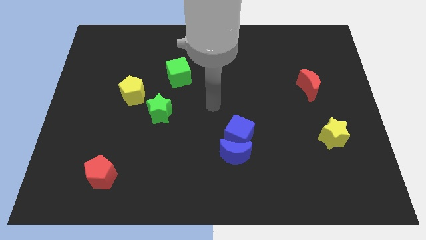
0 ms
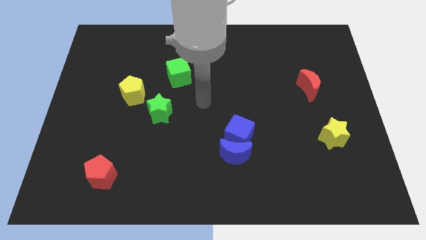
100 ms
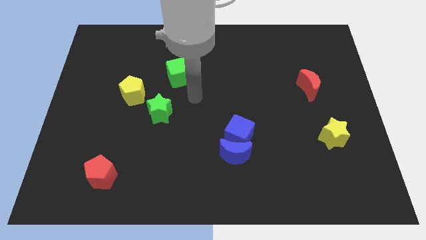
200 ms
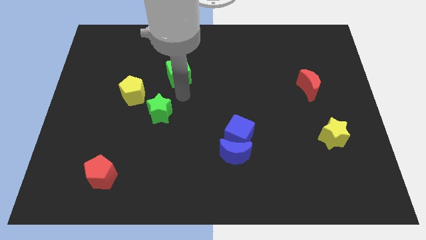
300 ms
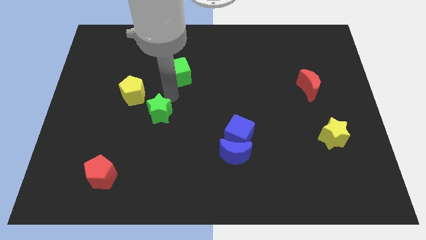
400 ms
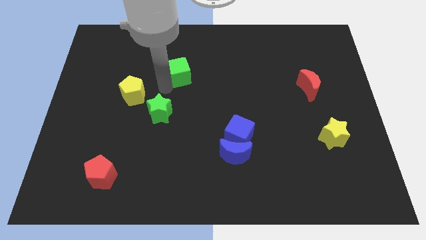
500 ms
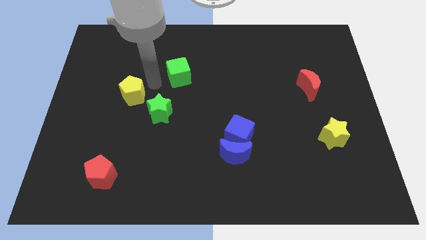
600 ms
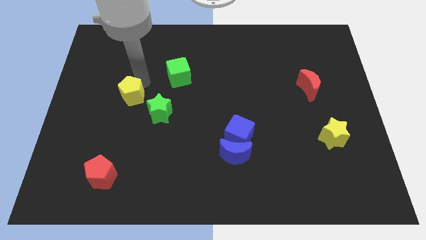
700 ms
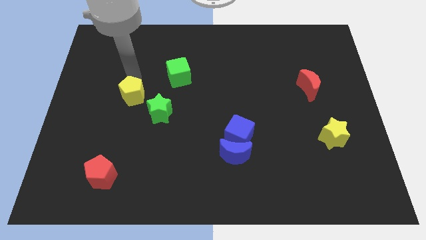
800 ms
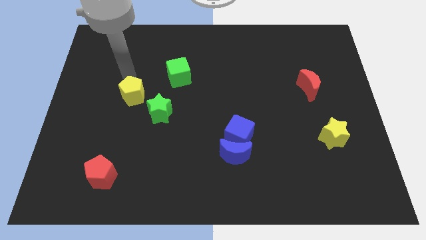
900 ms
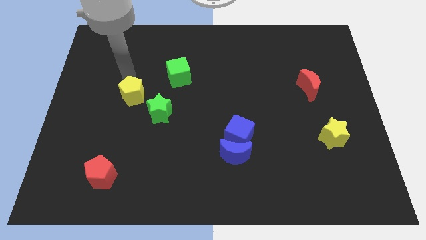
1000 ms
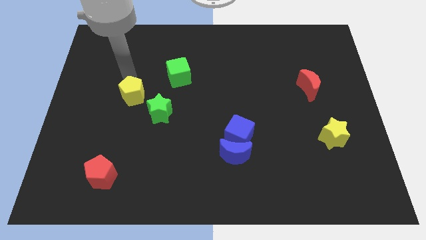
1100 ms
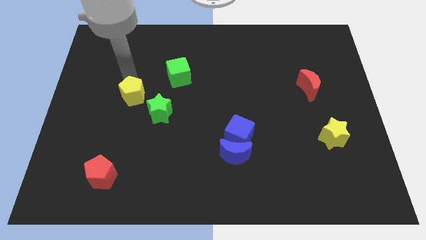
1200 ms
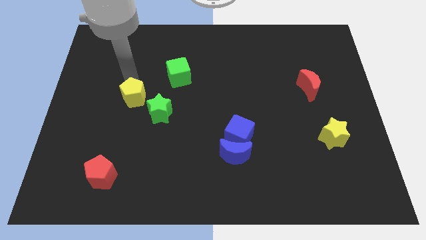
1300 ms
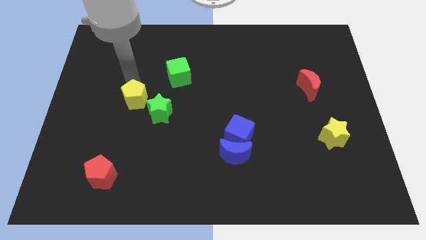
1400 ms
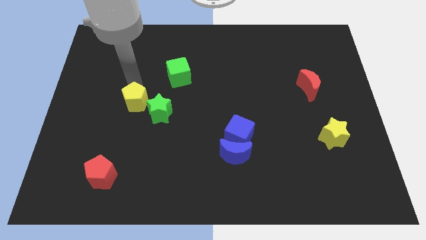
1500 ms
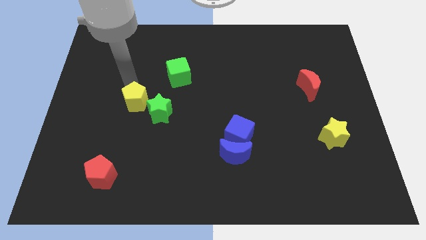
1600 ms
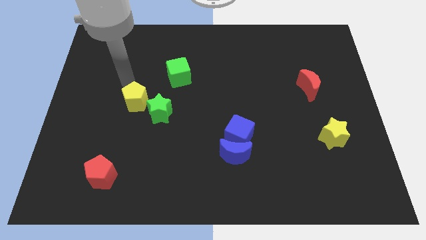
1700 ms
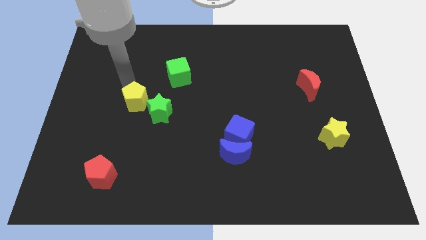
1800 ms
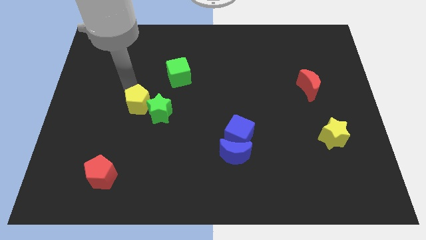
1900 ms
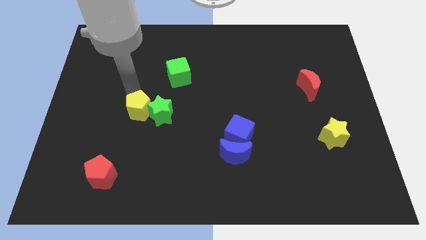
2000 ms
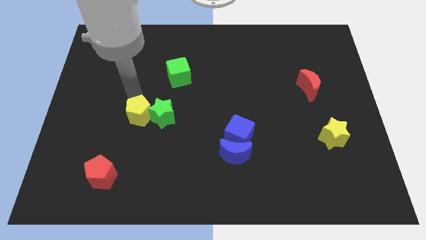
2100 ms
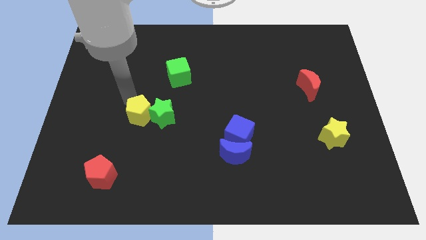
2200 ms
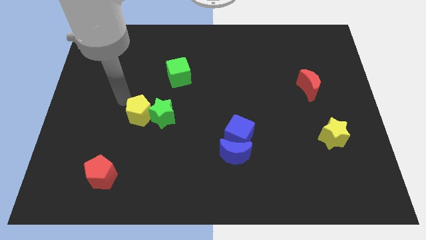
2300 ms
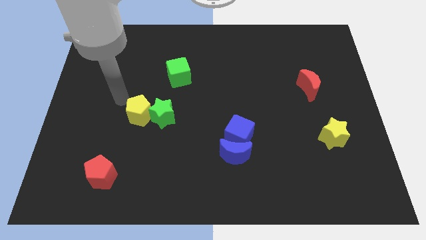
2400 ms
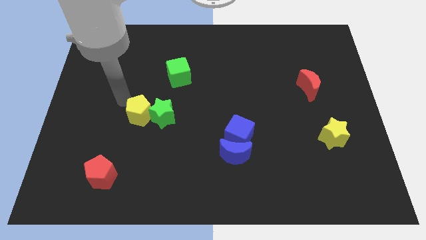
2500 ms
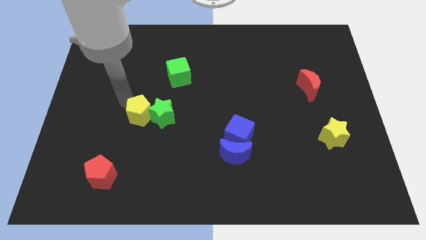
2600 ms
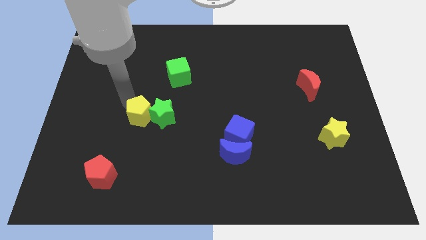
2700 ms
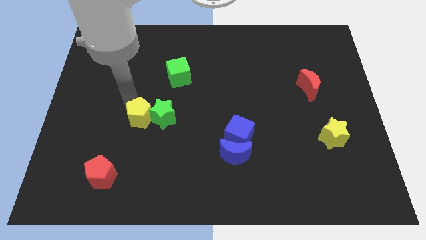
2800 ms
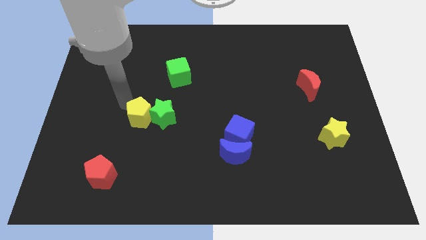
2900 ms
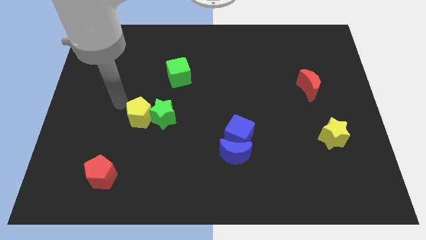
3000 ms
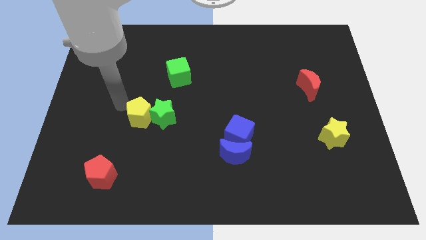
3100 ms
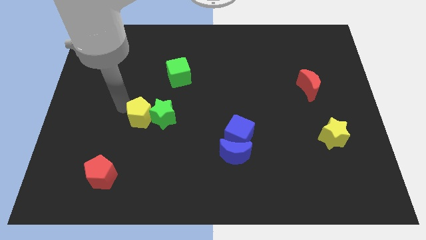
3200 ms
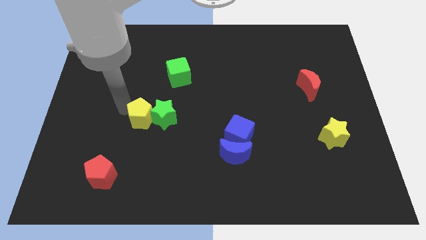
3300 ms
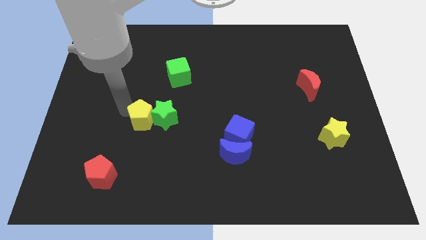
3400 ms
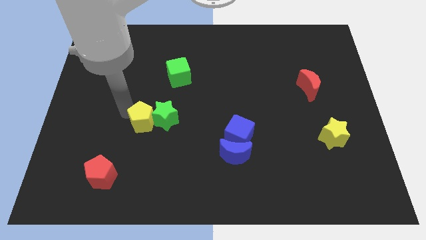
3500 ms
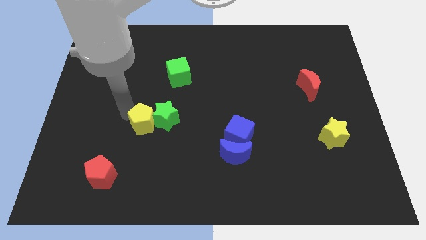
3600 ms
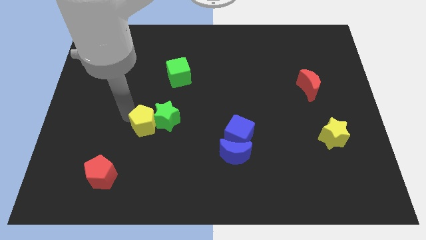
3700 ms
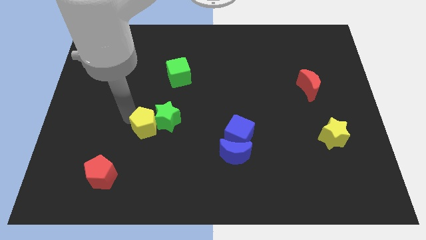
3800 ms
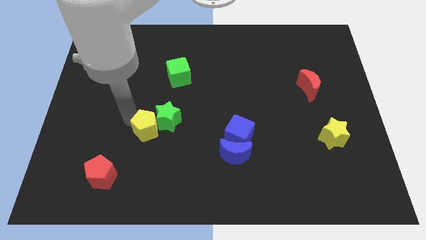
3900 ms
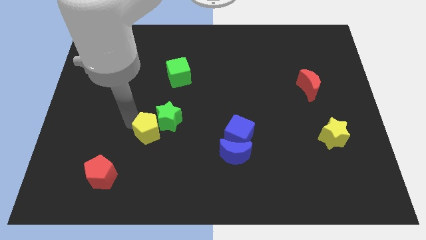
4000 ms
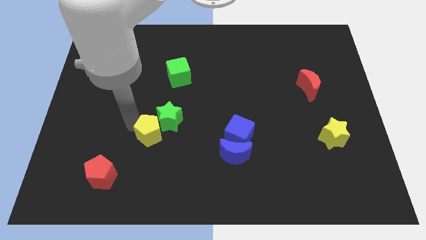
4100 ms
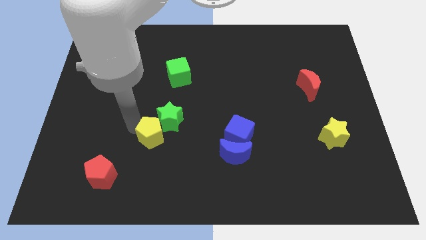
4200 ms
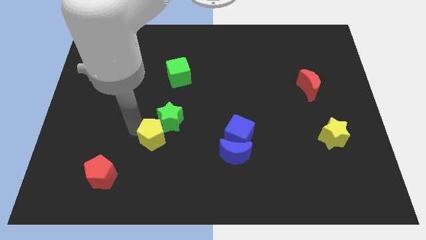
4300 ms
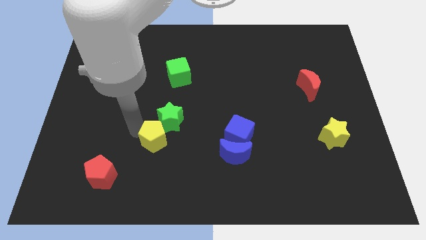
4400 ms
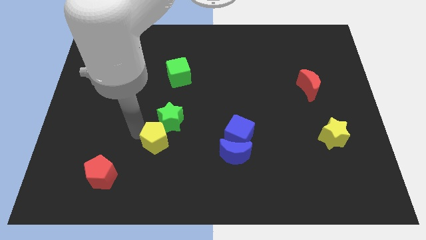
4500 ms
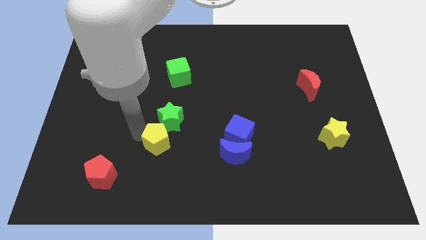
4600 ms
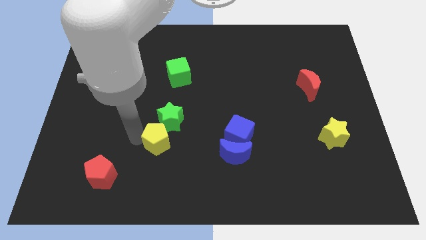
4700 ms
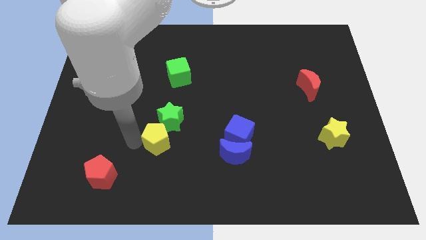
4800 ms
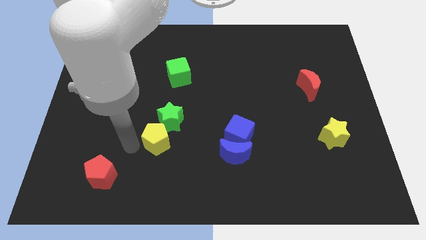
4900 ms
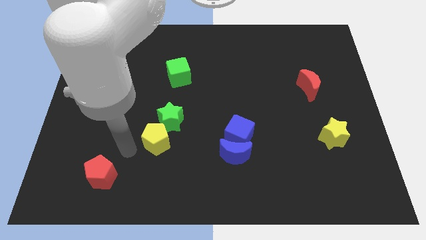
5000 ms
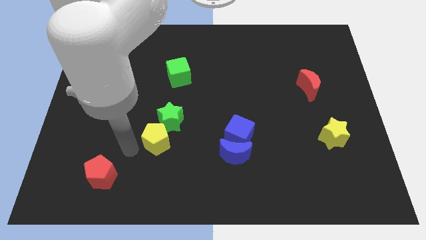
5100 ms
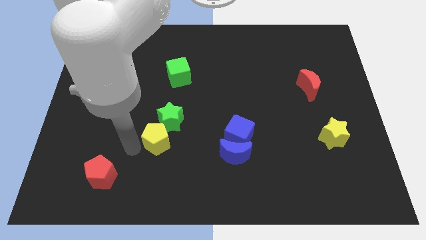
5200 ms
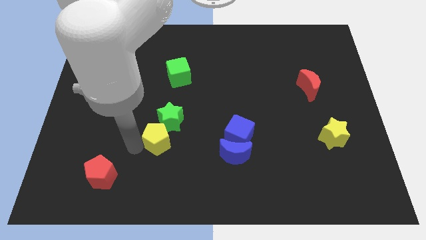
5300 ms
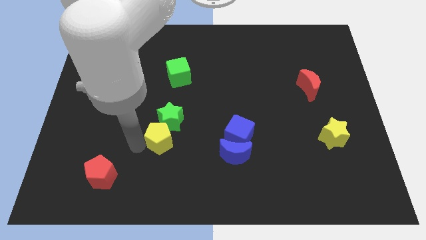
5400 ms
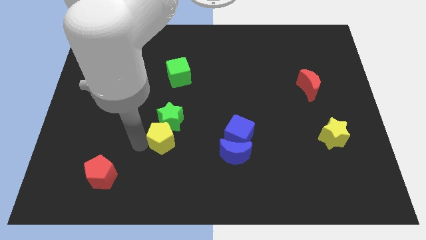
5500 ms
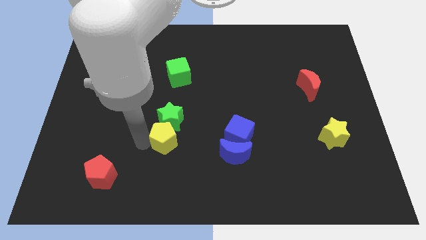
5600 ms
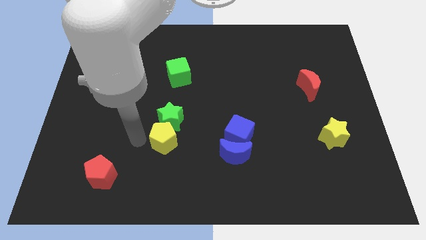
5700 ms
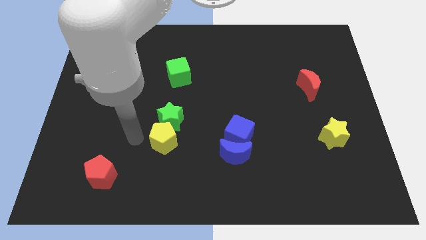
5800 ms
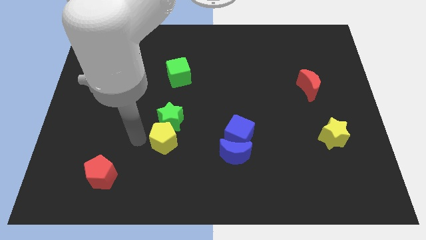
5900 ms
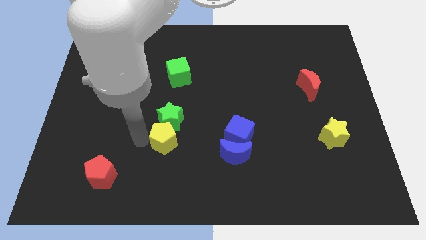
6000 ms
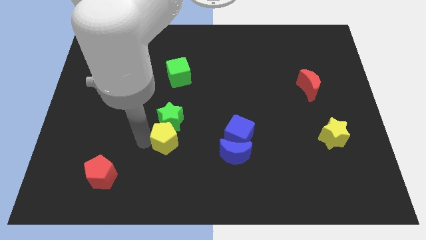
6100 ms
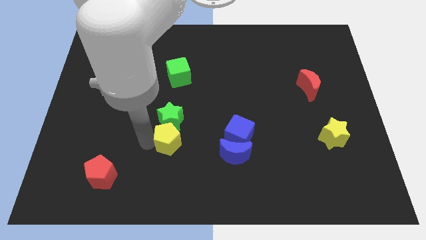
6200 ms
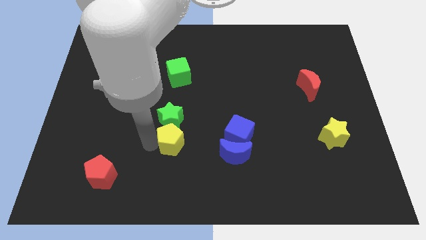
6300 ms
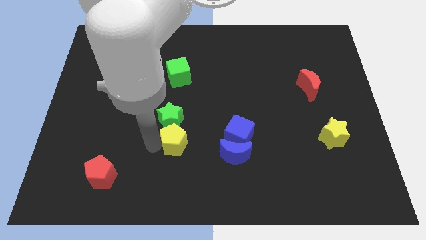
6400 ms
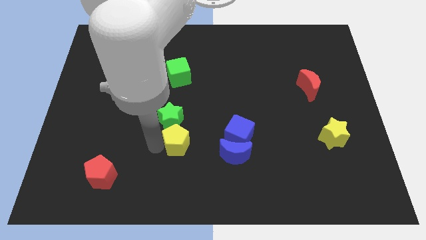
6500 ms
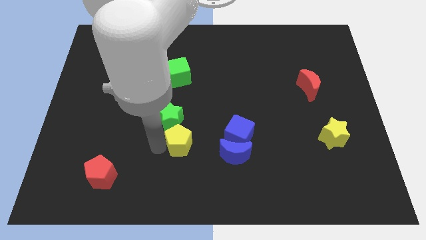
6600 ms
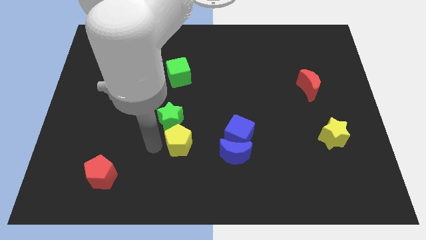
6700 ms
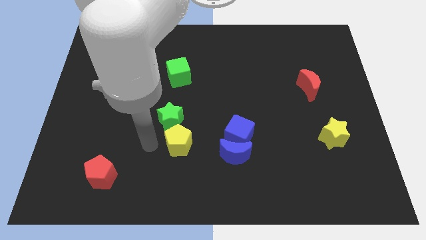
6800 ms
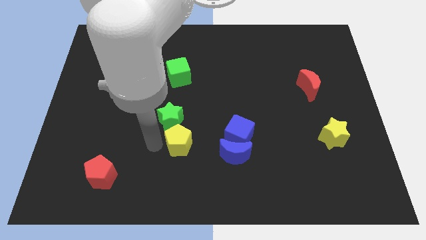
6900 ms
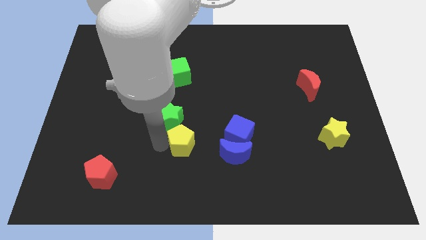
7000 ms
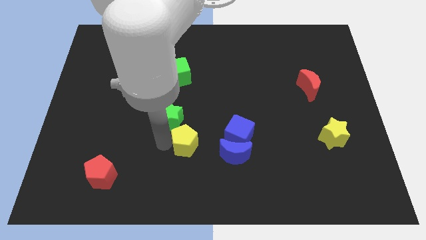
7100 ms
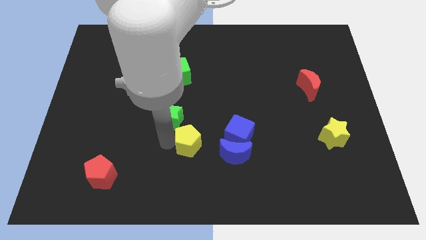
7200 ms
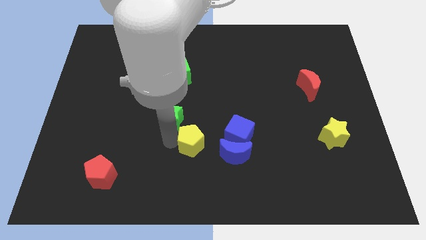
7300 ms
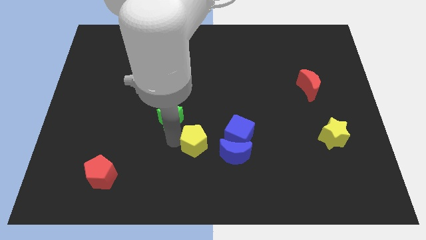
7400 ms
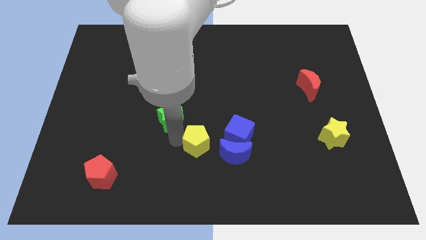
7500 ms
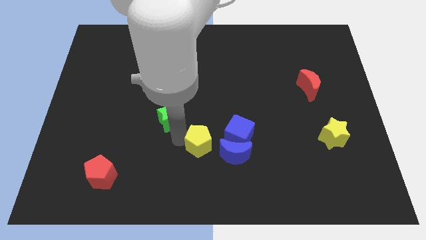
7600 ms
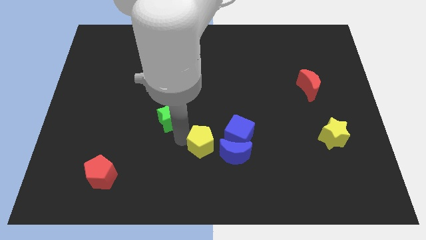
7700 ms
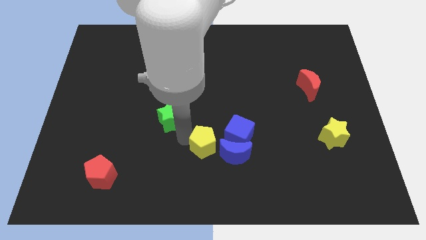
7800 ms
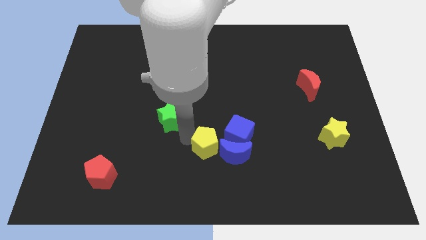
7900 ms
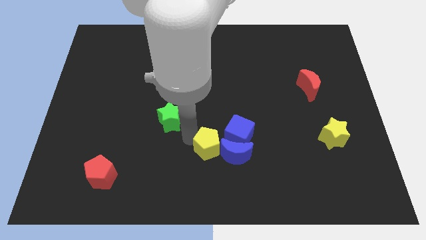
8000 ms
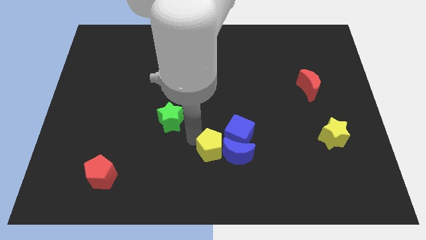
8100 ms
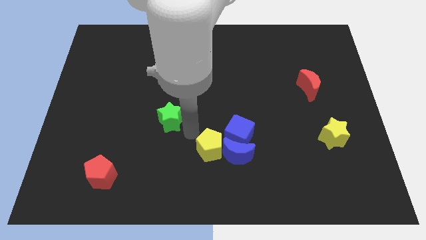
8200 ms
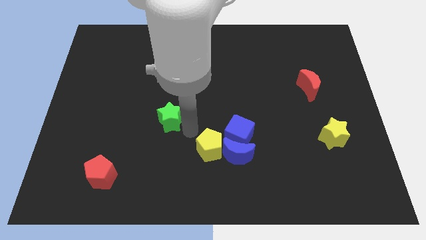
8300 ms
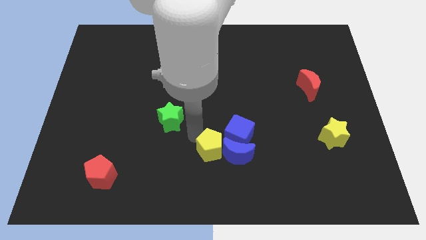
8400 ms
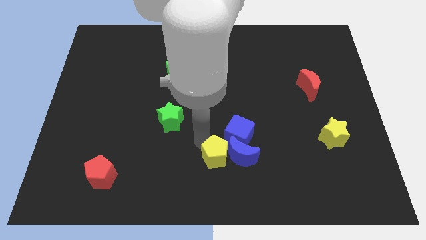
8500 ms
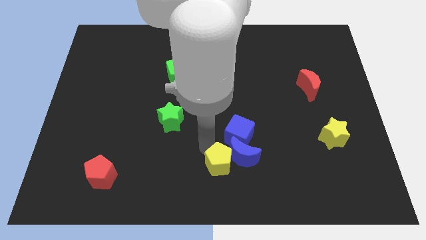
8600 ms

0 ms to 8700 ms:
put the yellow pentagon to the bottom side of the blue cube
